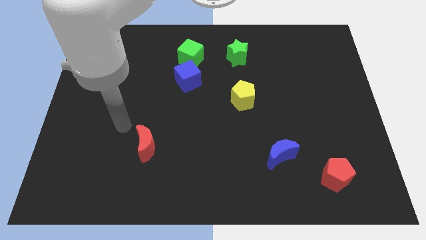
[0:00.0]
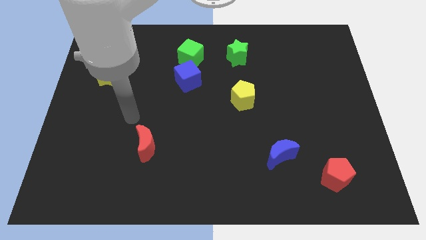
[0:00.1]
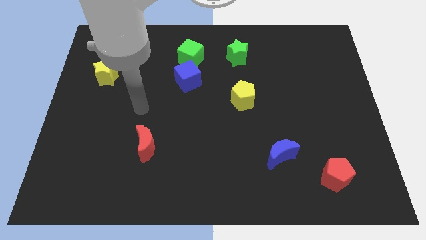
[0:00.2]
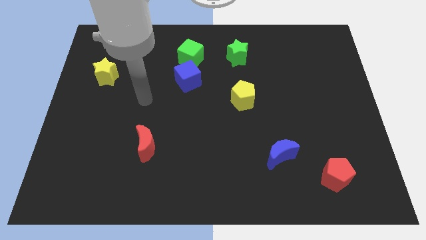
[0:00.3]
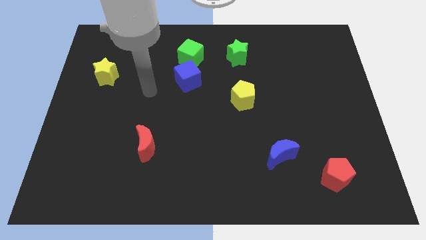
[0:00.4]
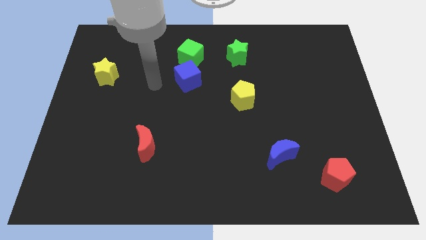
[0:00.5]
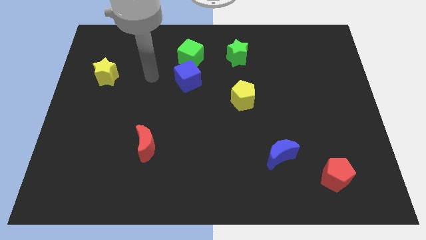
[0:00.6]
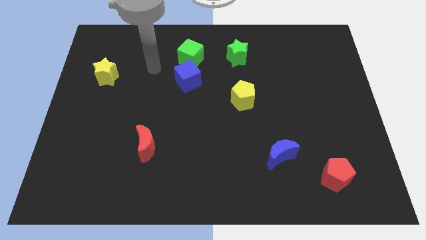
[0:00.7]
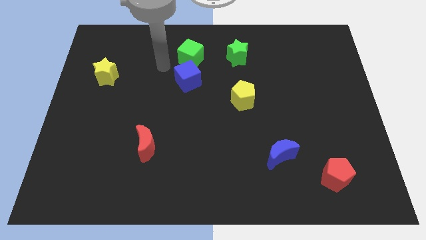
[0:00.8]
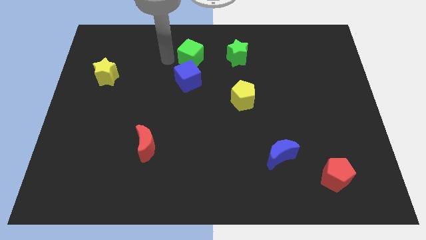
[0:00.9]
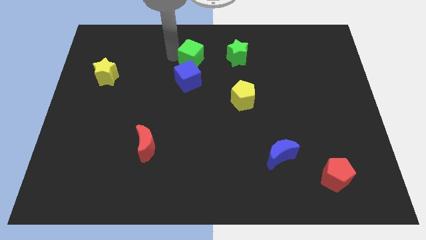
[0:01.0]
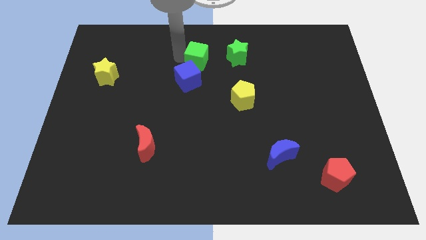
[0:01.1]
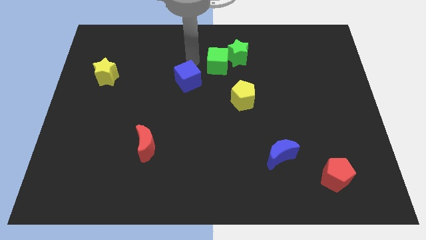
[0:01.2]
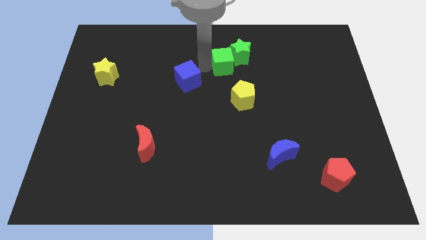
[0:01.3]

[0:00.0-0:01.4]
separate the blue cube from the green cube

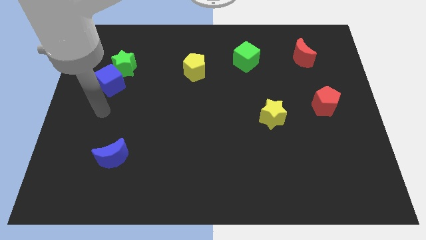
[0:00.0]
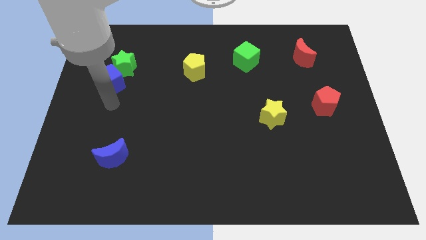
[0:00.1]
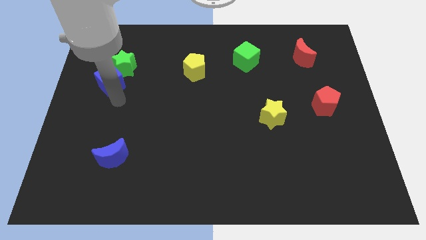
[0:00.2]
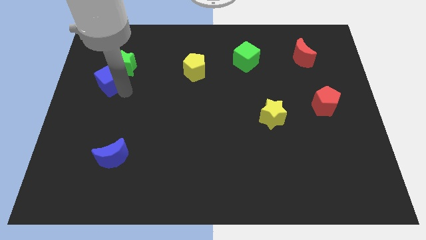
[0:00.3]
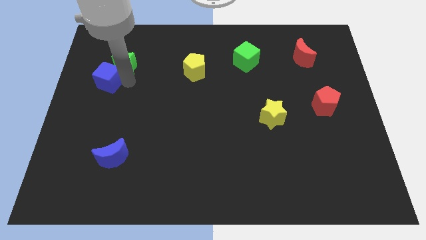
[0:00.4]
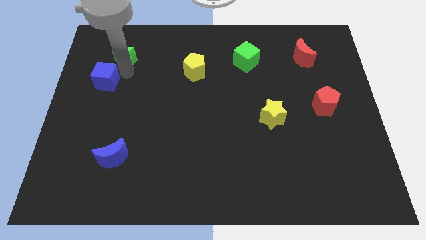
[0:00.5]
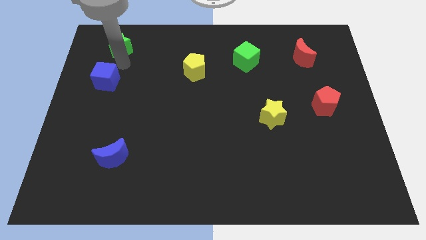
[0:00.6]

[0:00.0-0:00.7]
separate the blue cube from the green star

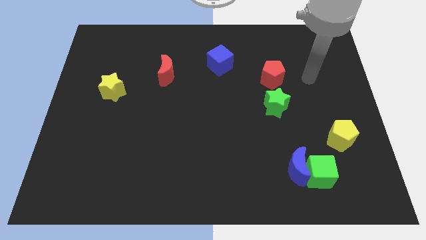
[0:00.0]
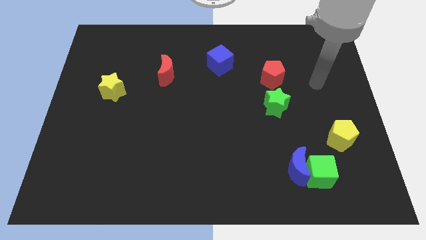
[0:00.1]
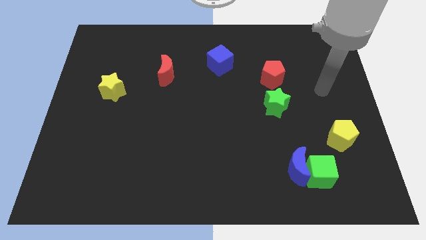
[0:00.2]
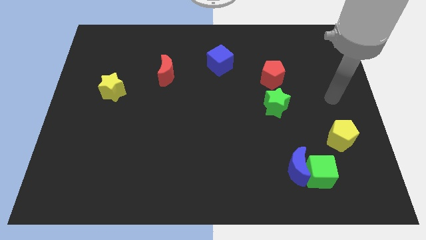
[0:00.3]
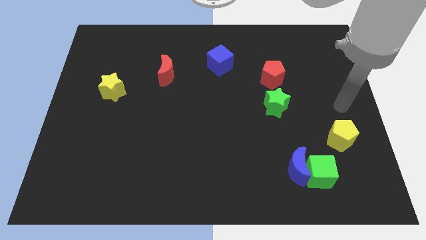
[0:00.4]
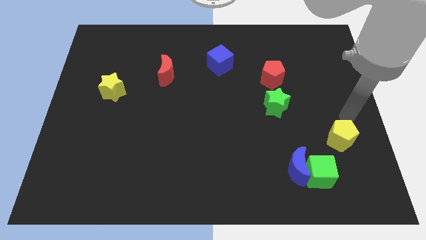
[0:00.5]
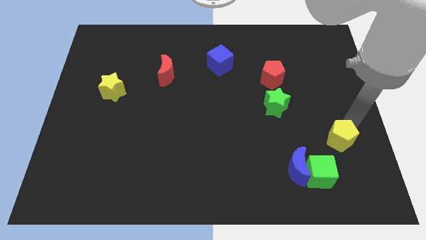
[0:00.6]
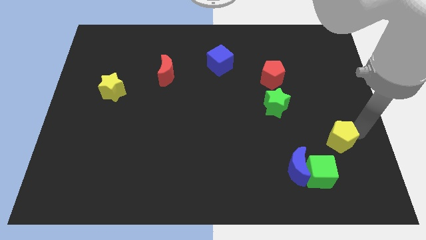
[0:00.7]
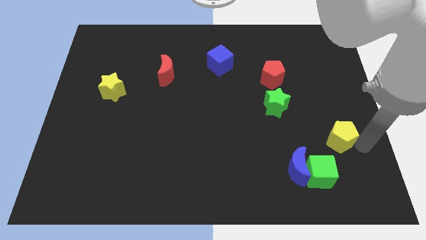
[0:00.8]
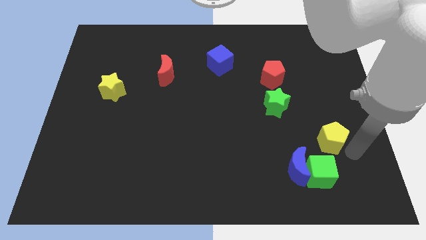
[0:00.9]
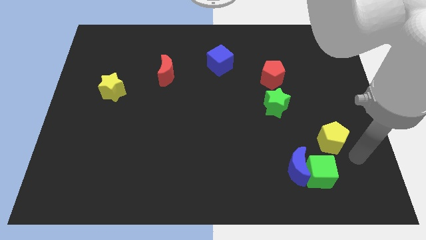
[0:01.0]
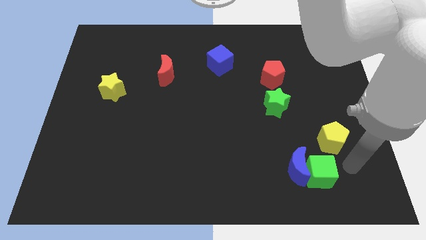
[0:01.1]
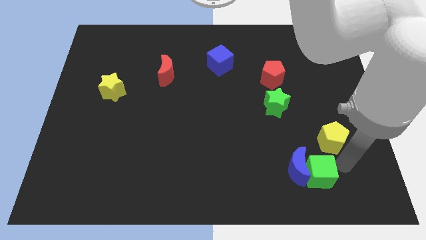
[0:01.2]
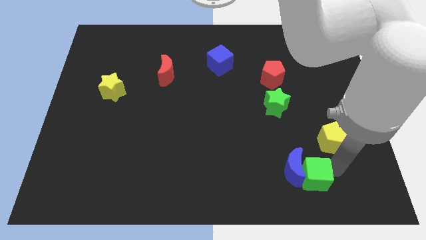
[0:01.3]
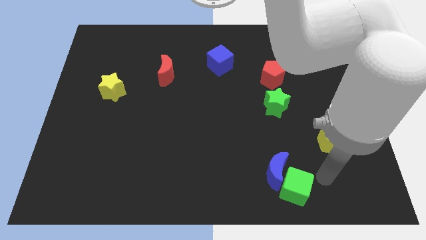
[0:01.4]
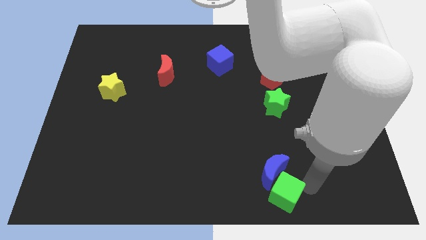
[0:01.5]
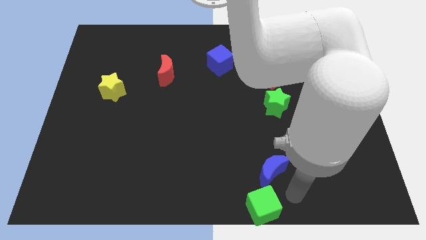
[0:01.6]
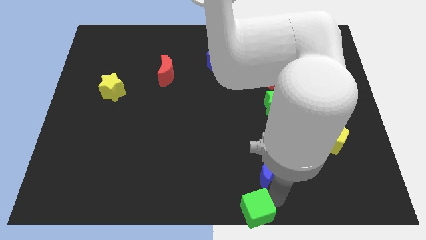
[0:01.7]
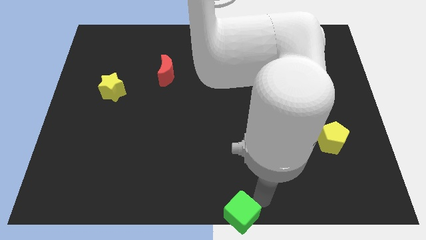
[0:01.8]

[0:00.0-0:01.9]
move the blue moon away from the green cube

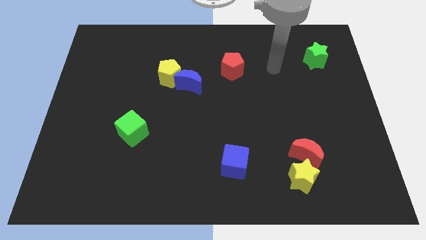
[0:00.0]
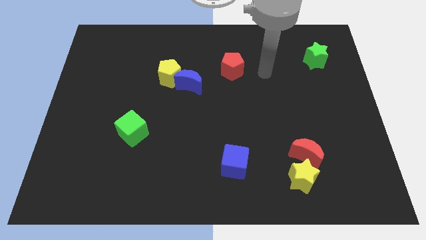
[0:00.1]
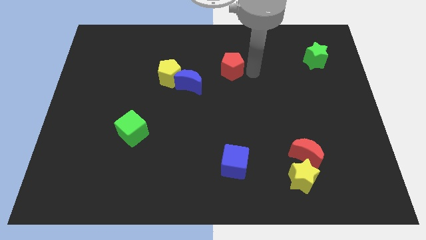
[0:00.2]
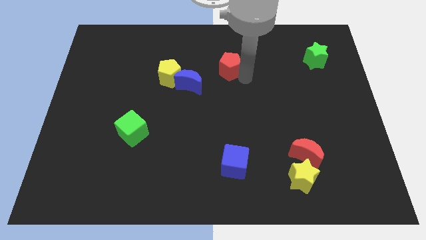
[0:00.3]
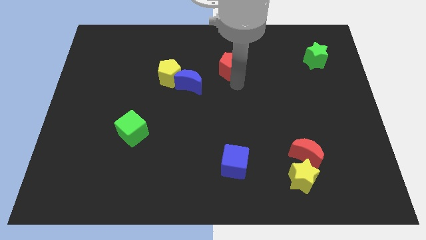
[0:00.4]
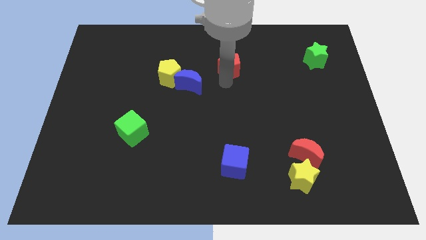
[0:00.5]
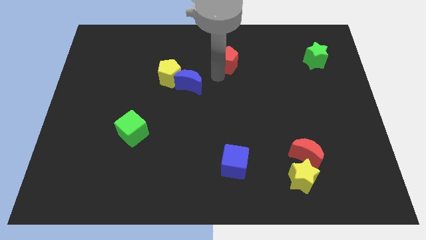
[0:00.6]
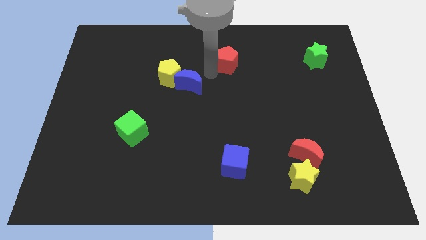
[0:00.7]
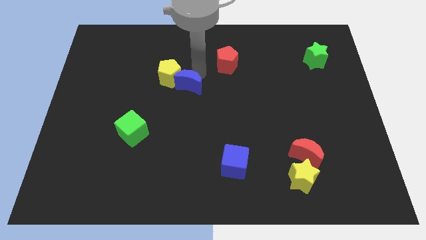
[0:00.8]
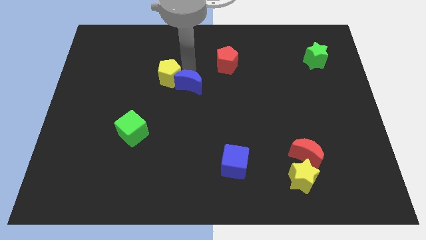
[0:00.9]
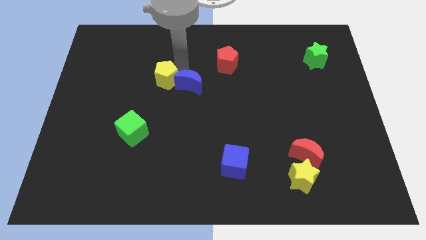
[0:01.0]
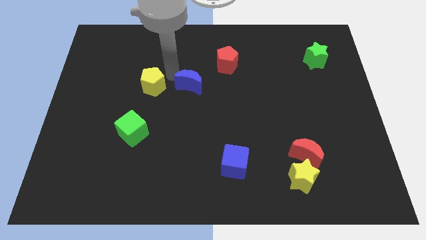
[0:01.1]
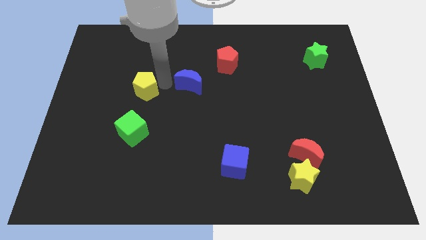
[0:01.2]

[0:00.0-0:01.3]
separate the blue moon from the yellow pentagon

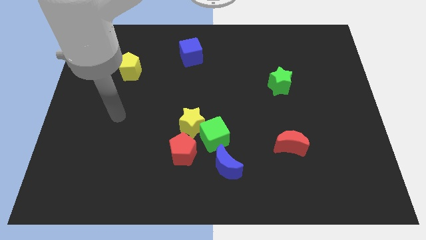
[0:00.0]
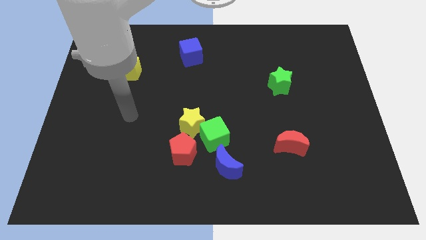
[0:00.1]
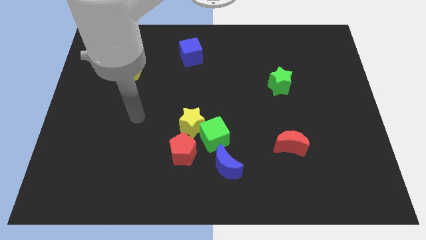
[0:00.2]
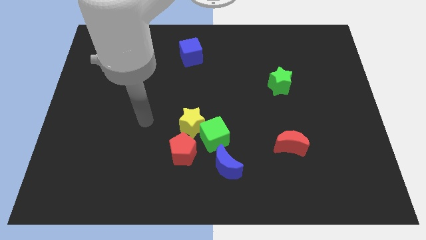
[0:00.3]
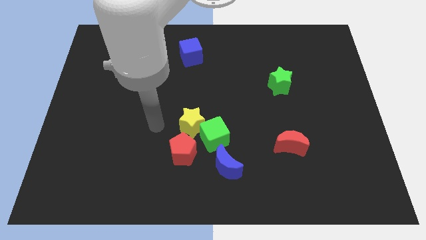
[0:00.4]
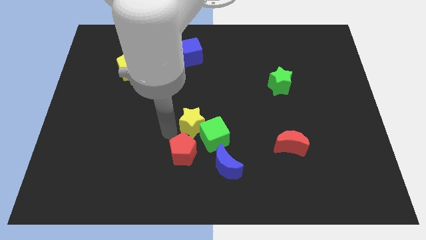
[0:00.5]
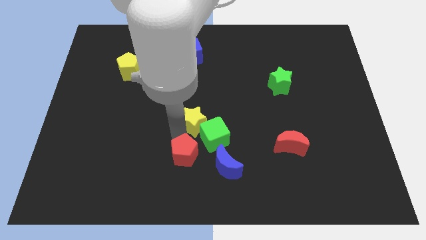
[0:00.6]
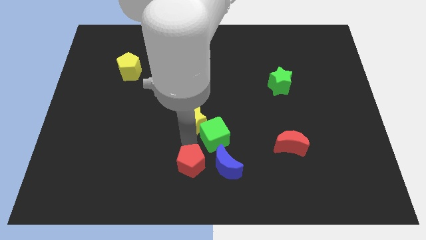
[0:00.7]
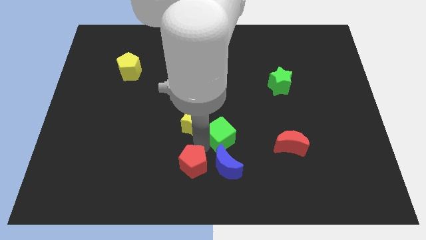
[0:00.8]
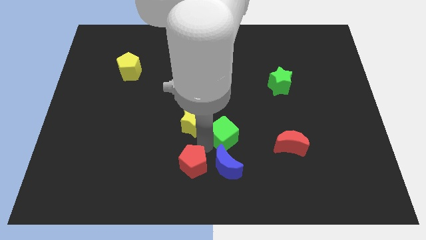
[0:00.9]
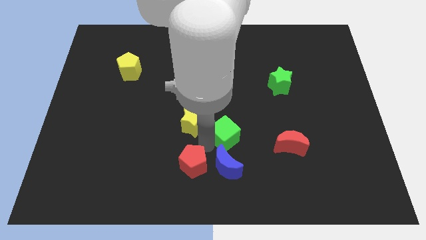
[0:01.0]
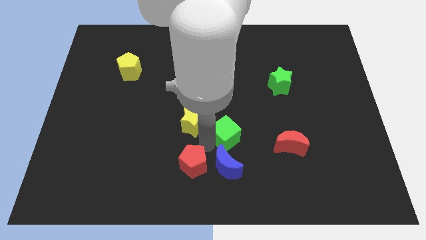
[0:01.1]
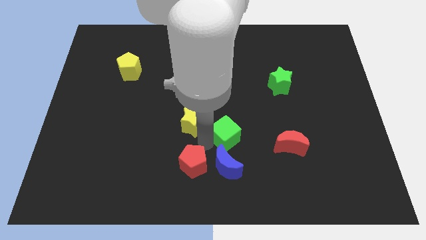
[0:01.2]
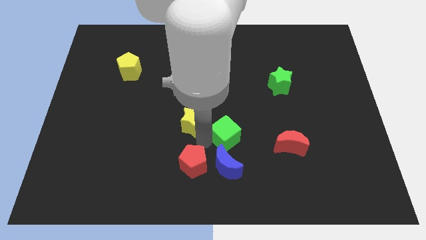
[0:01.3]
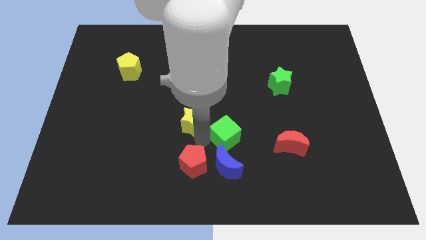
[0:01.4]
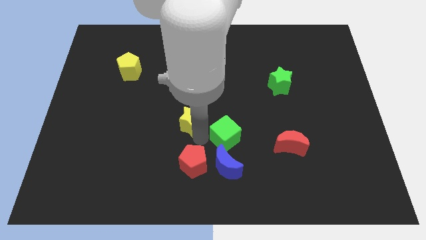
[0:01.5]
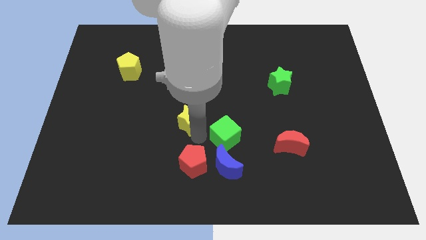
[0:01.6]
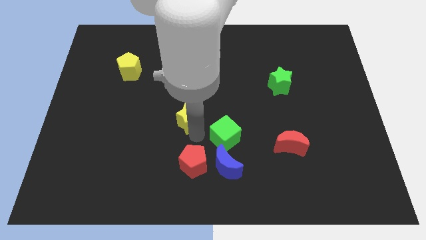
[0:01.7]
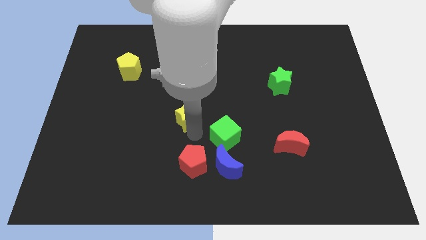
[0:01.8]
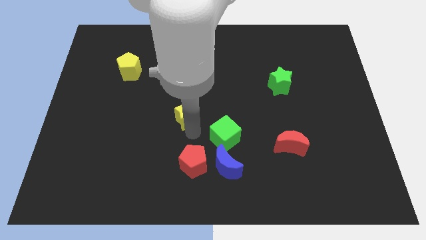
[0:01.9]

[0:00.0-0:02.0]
separate the yellow star from the green cube and red pentagon

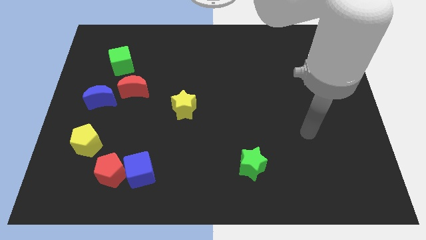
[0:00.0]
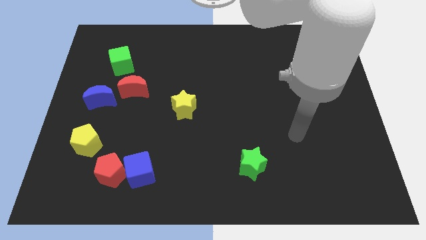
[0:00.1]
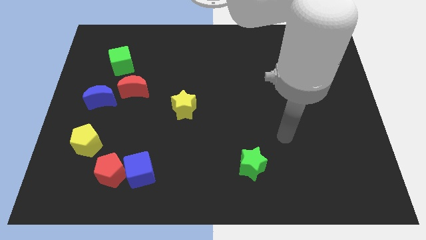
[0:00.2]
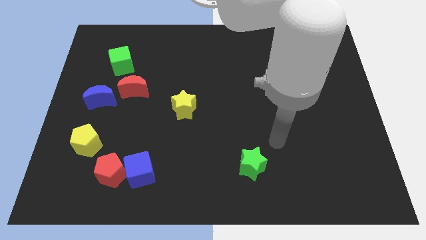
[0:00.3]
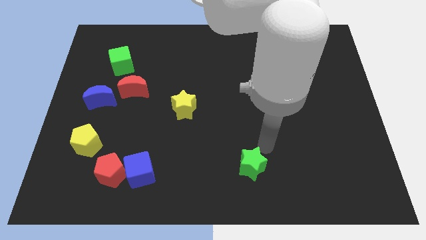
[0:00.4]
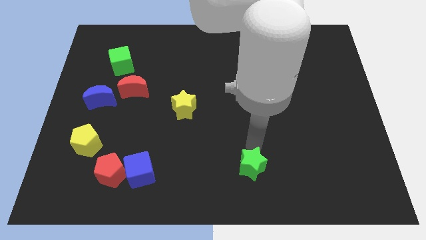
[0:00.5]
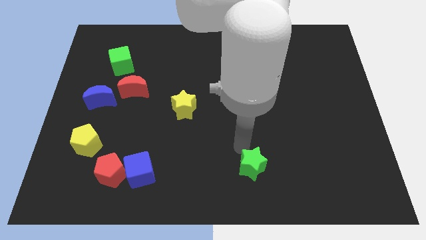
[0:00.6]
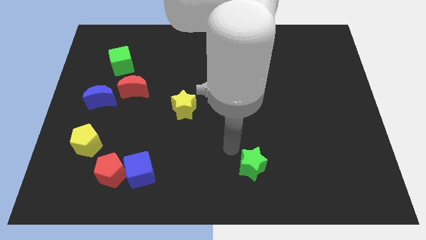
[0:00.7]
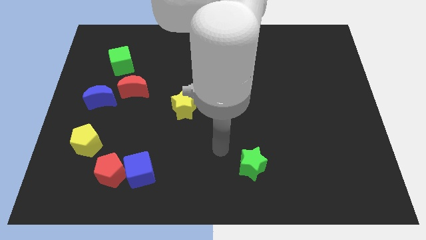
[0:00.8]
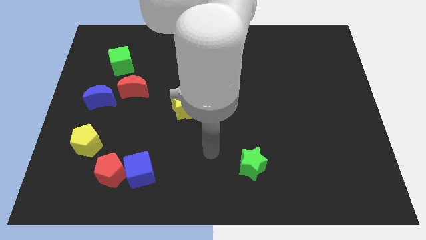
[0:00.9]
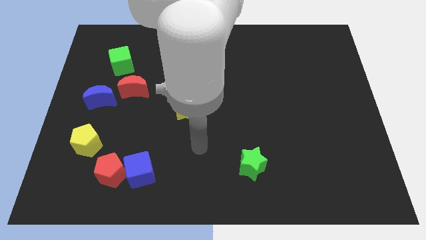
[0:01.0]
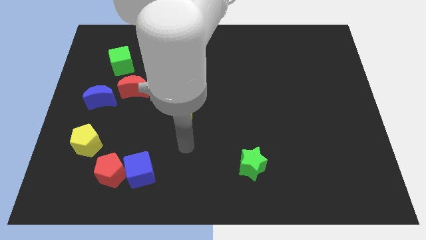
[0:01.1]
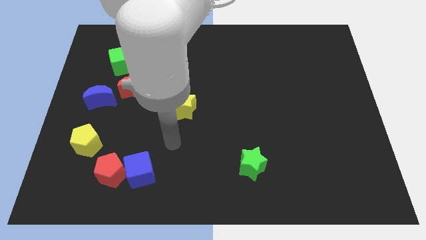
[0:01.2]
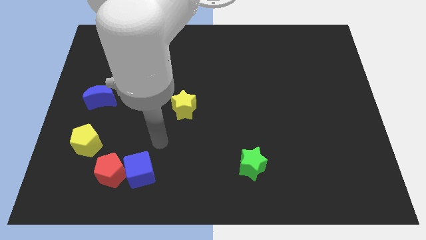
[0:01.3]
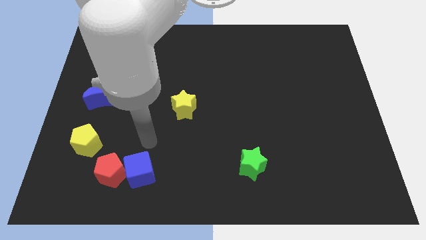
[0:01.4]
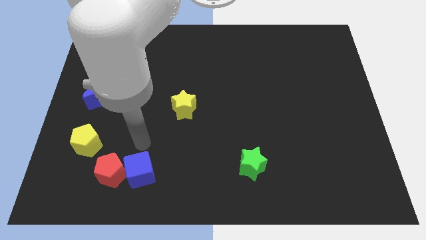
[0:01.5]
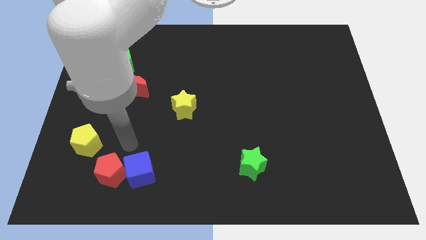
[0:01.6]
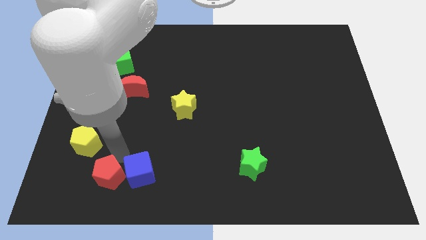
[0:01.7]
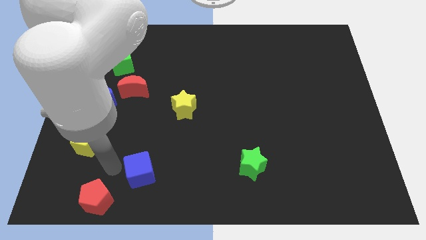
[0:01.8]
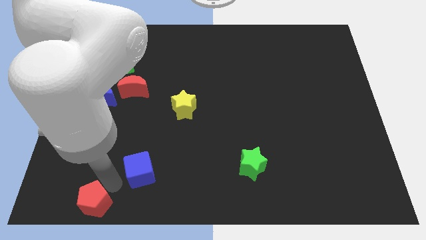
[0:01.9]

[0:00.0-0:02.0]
move the blue cube away from the red pentagon
